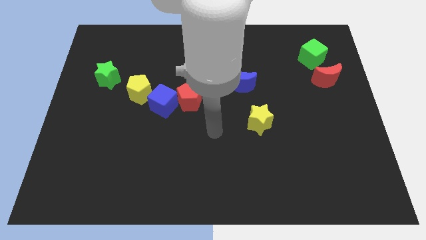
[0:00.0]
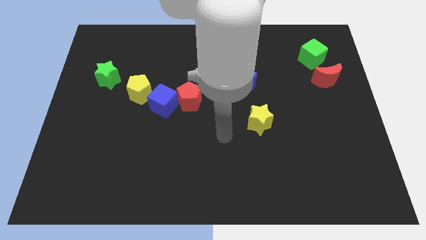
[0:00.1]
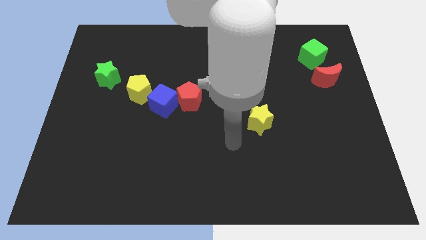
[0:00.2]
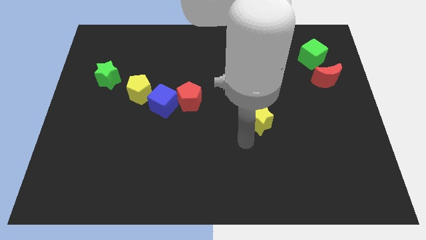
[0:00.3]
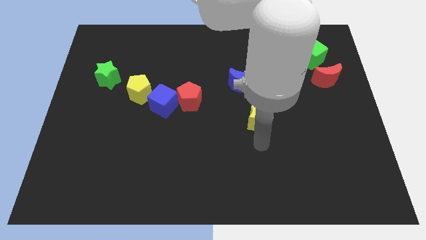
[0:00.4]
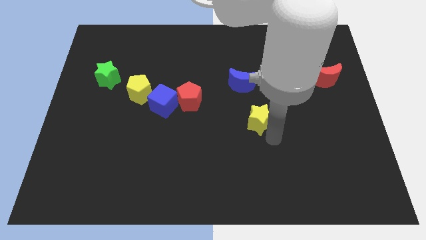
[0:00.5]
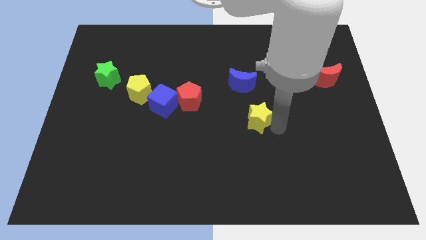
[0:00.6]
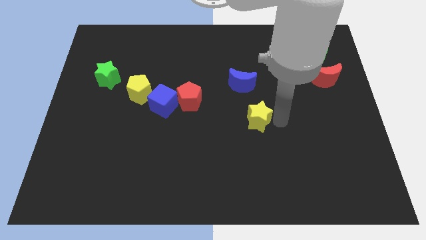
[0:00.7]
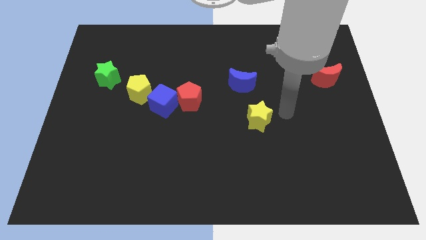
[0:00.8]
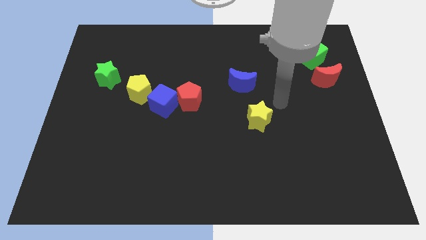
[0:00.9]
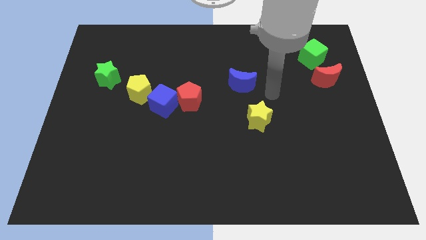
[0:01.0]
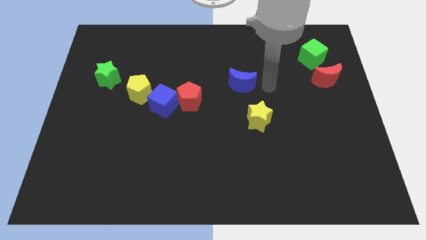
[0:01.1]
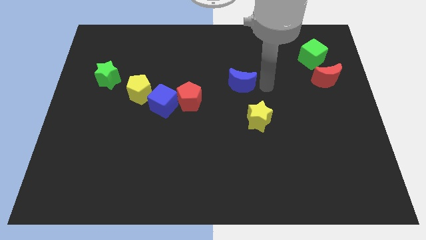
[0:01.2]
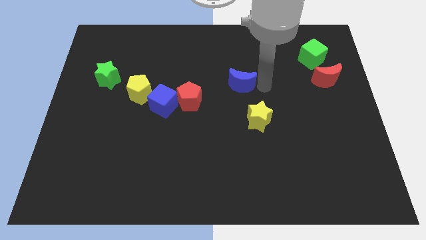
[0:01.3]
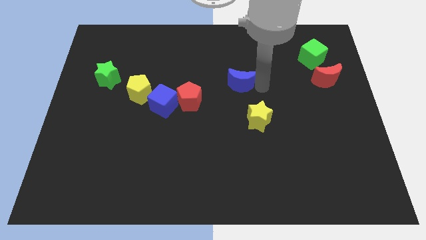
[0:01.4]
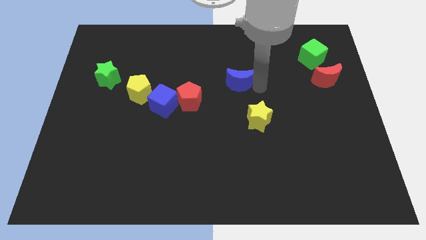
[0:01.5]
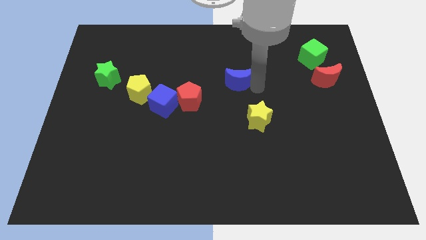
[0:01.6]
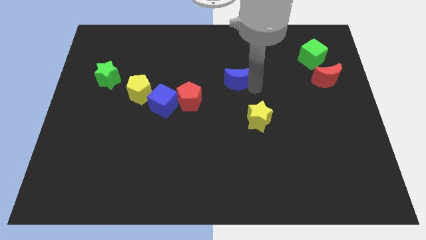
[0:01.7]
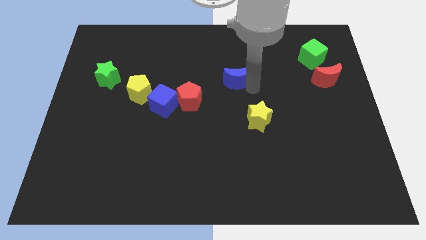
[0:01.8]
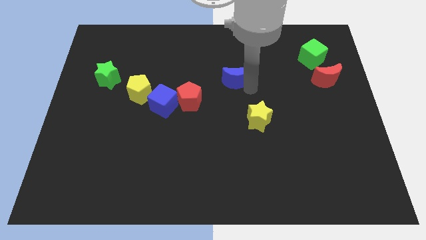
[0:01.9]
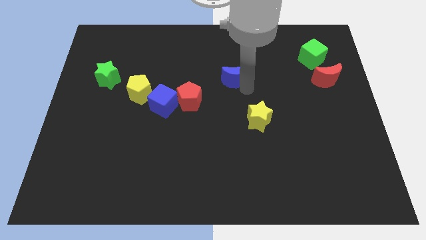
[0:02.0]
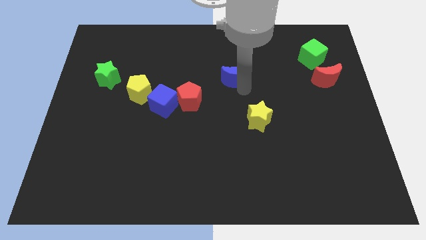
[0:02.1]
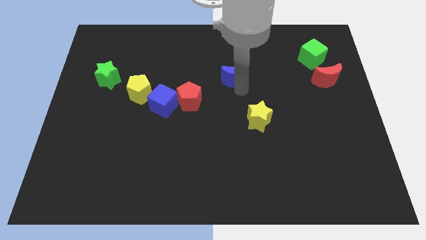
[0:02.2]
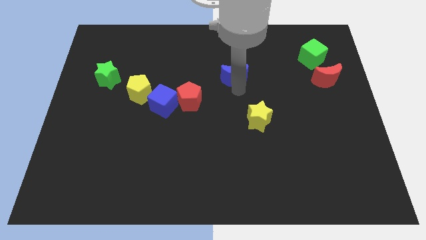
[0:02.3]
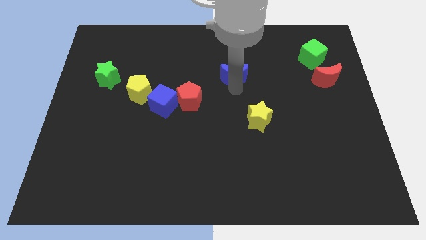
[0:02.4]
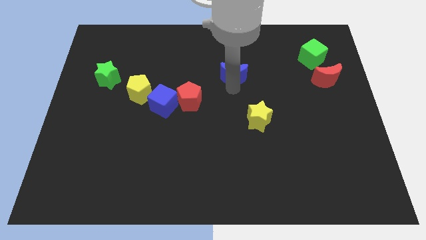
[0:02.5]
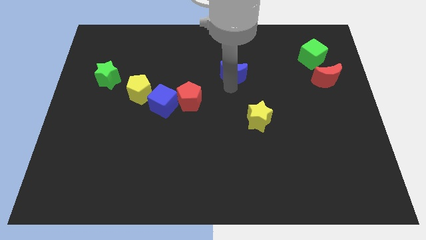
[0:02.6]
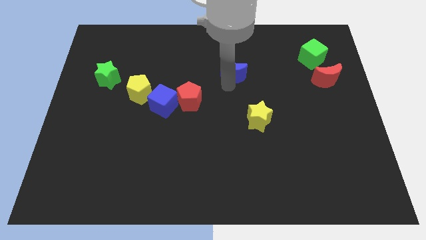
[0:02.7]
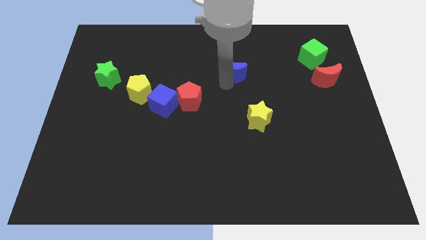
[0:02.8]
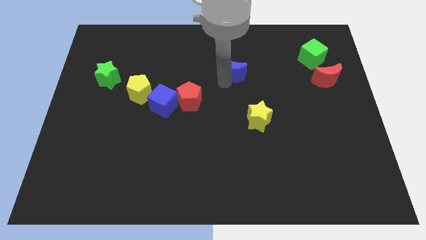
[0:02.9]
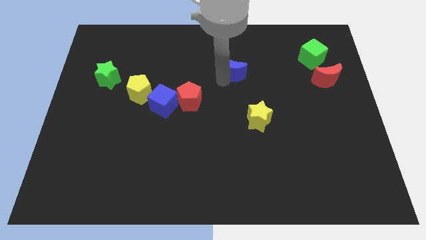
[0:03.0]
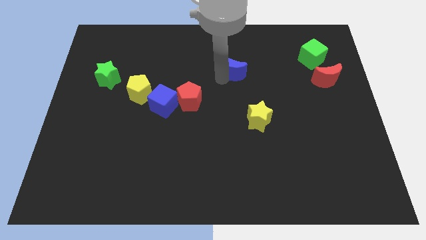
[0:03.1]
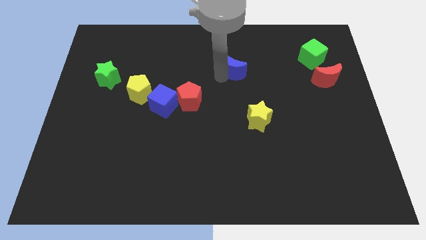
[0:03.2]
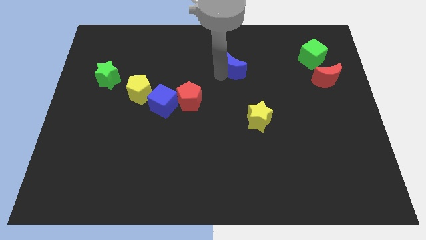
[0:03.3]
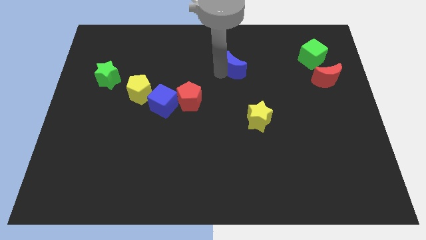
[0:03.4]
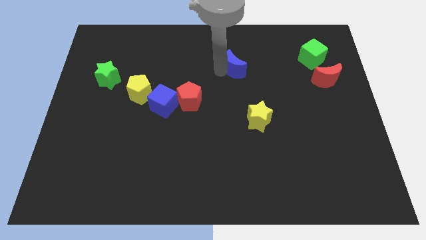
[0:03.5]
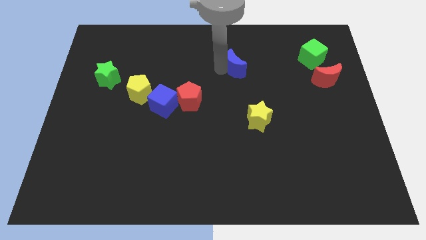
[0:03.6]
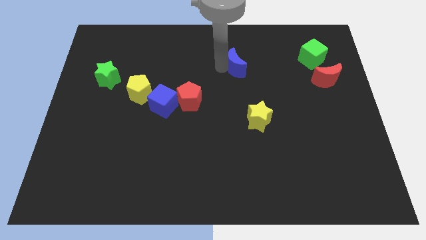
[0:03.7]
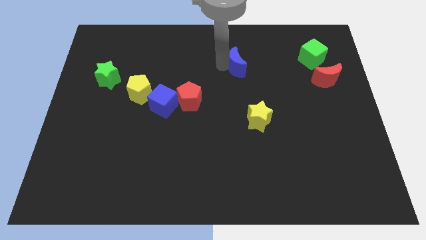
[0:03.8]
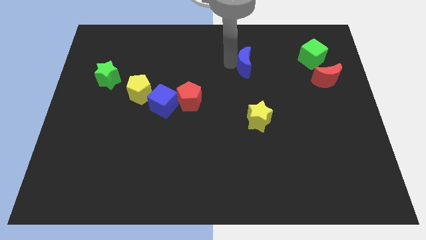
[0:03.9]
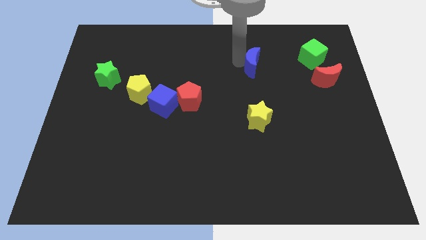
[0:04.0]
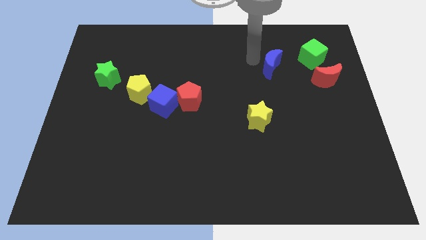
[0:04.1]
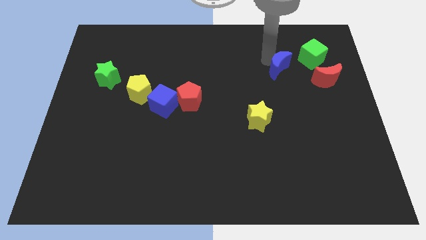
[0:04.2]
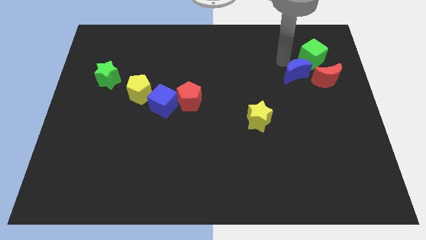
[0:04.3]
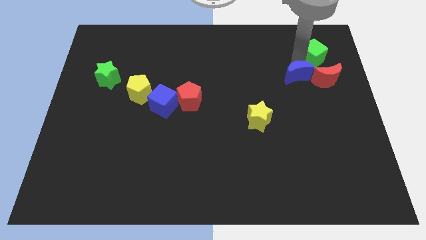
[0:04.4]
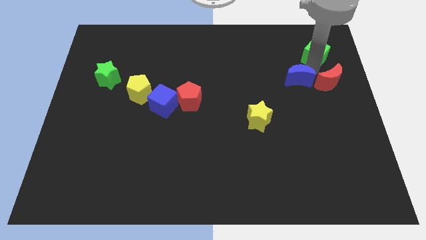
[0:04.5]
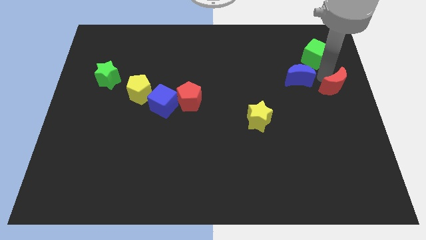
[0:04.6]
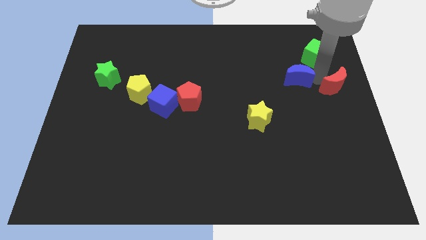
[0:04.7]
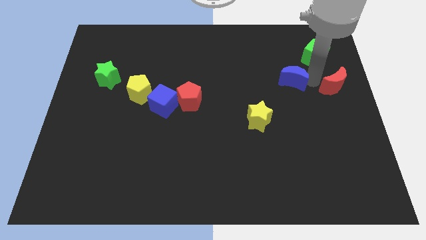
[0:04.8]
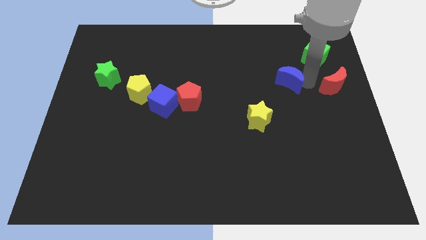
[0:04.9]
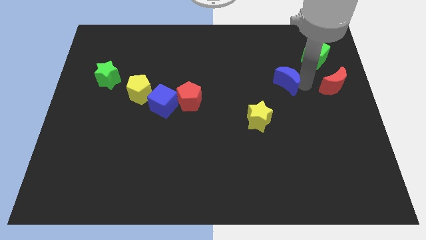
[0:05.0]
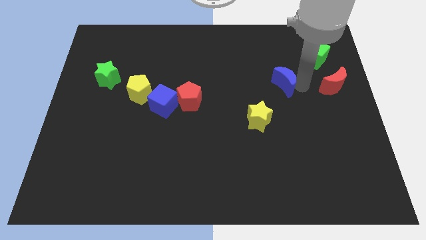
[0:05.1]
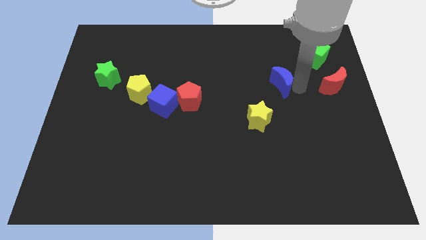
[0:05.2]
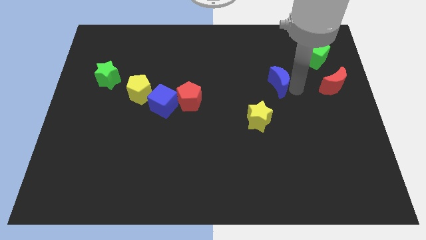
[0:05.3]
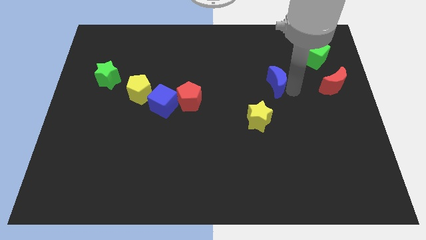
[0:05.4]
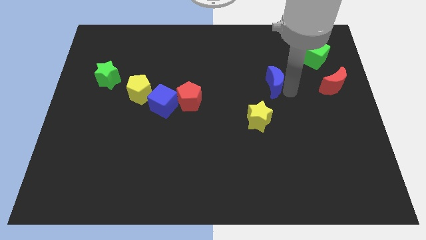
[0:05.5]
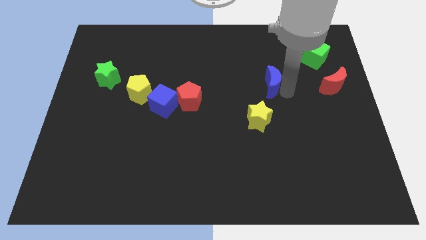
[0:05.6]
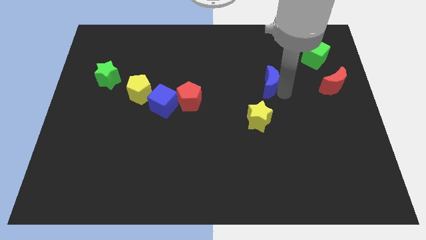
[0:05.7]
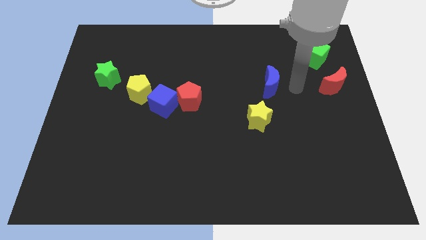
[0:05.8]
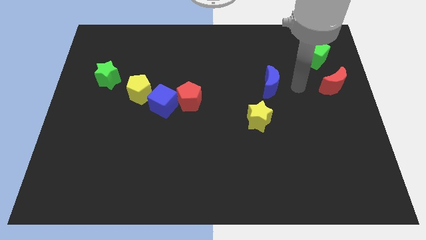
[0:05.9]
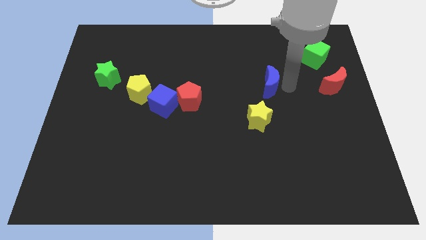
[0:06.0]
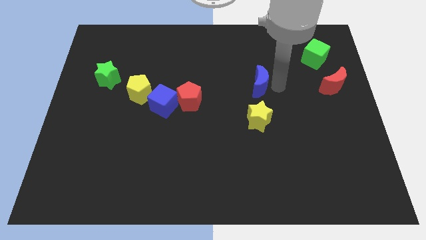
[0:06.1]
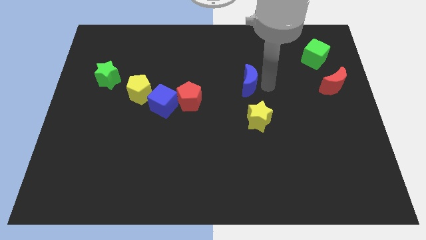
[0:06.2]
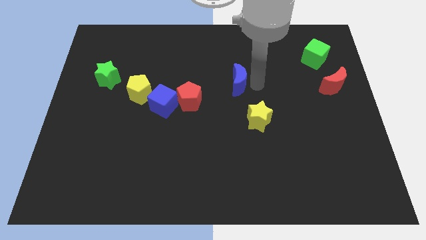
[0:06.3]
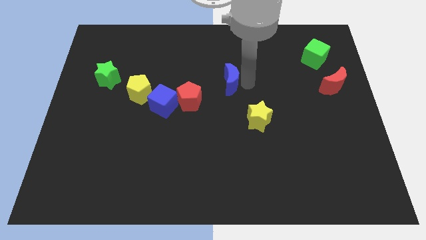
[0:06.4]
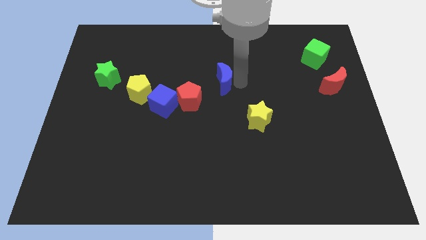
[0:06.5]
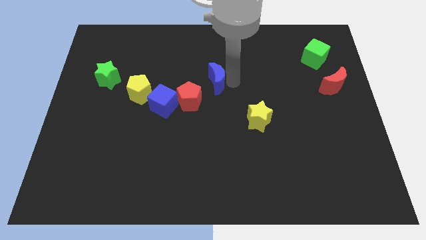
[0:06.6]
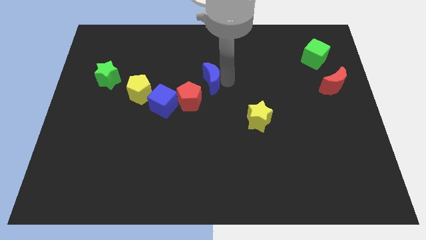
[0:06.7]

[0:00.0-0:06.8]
slightly move the blue moon left

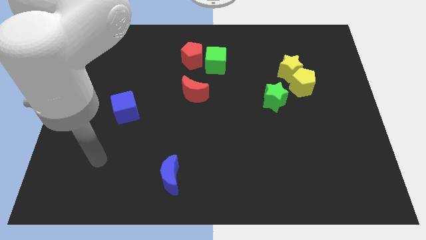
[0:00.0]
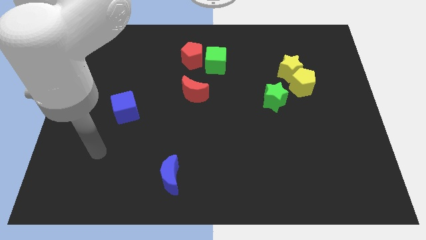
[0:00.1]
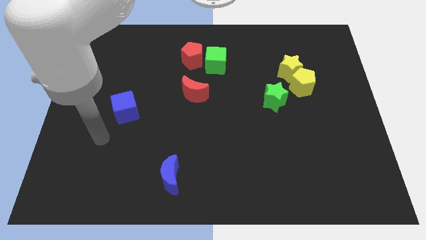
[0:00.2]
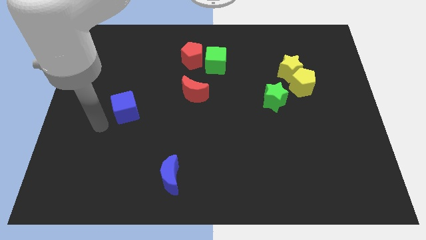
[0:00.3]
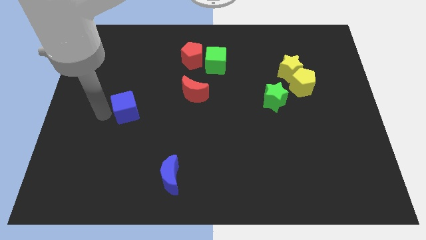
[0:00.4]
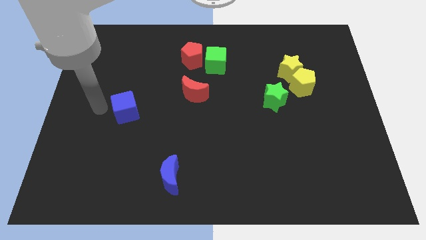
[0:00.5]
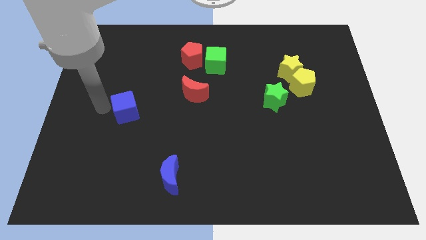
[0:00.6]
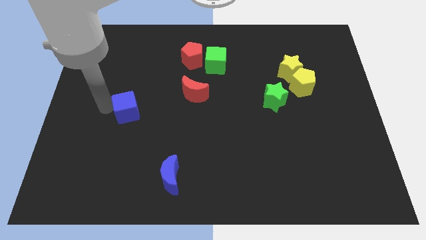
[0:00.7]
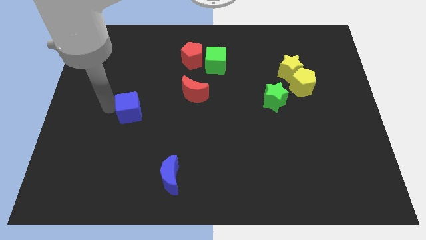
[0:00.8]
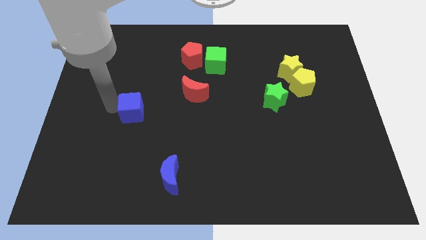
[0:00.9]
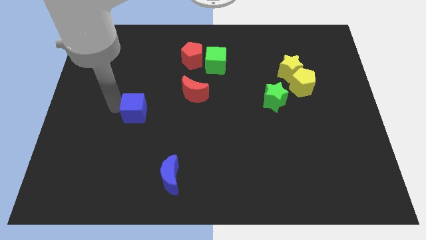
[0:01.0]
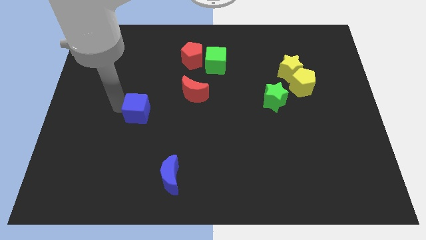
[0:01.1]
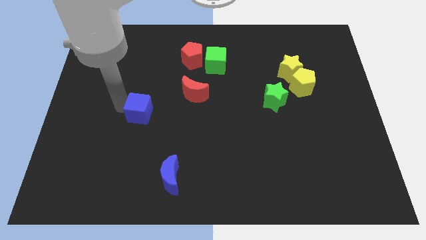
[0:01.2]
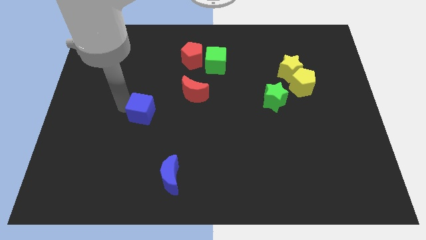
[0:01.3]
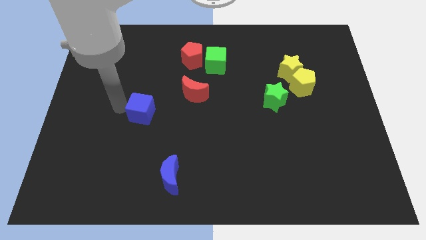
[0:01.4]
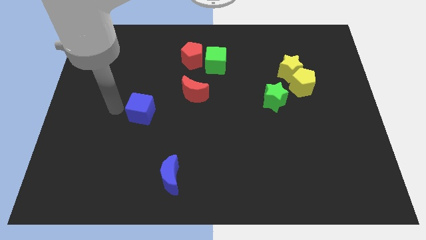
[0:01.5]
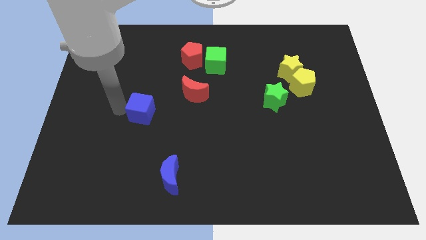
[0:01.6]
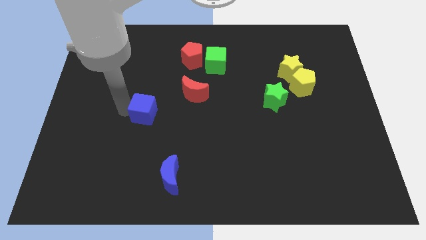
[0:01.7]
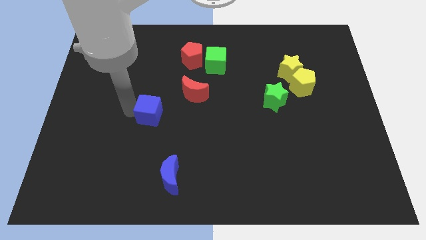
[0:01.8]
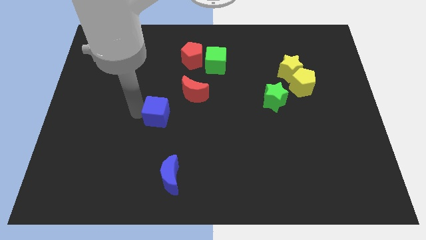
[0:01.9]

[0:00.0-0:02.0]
move the blue cube somewhat to the right
